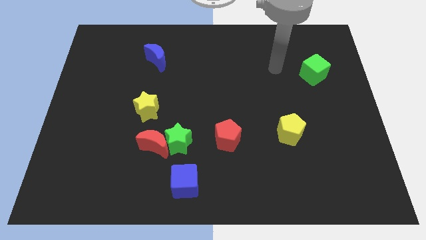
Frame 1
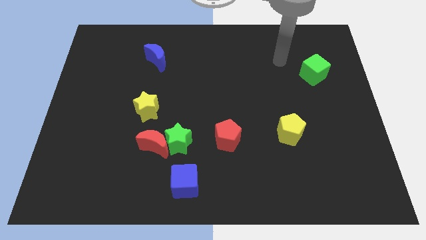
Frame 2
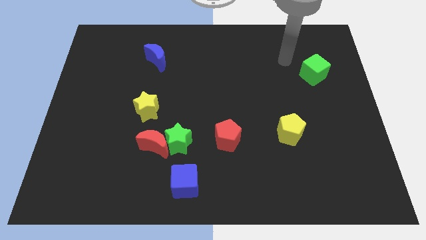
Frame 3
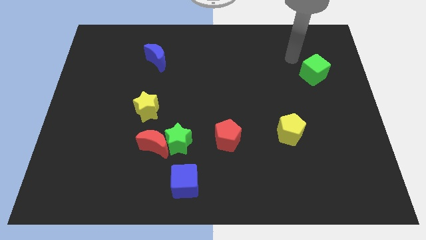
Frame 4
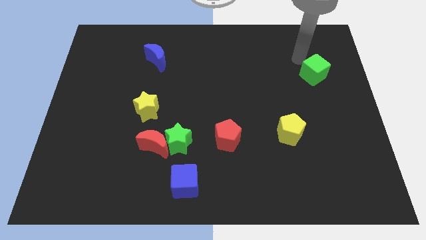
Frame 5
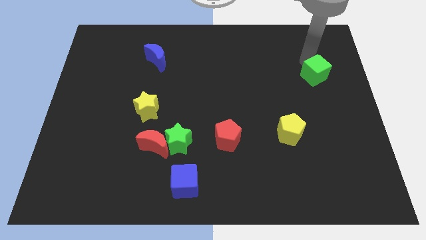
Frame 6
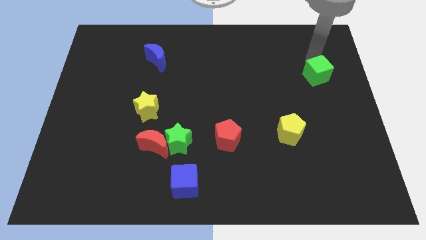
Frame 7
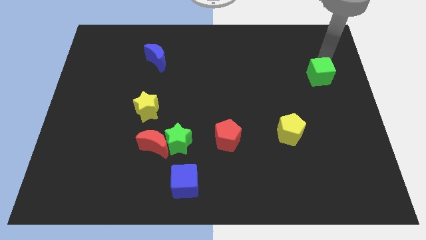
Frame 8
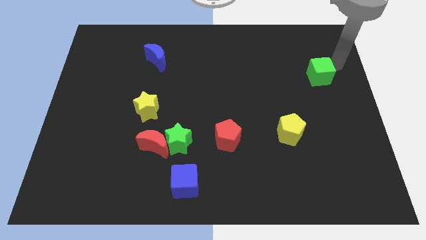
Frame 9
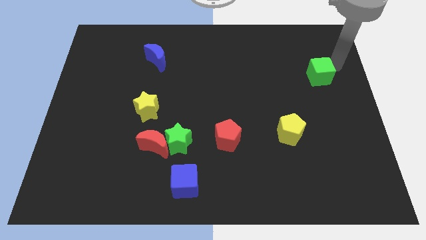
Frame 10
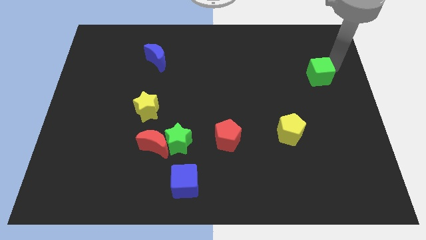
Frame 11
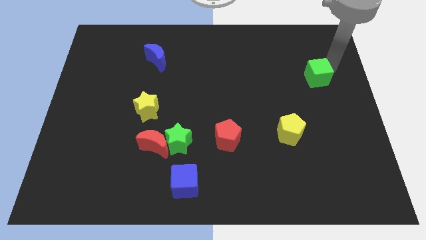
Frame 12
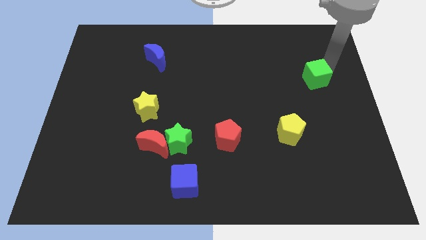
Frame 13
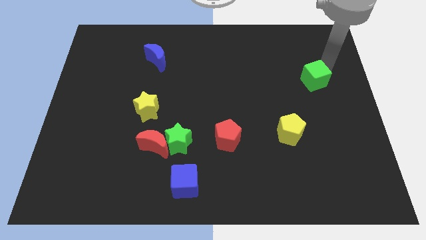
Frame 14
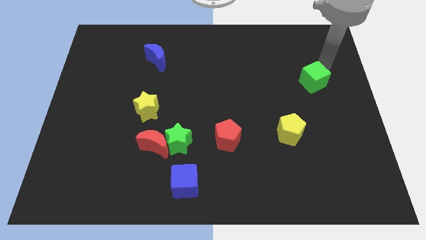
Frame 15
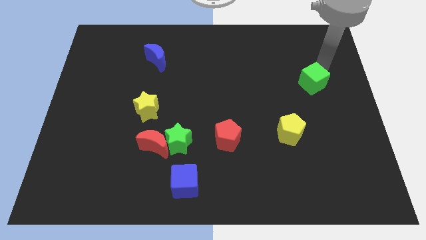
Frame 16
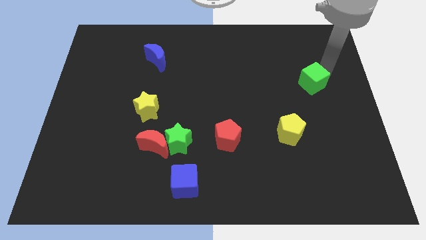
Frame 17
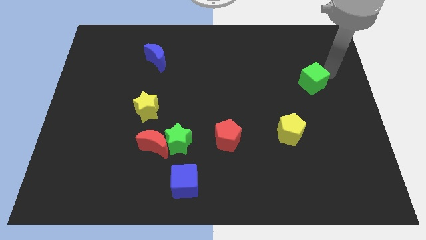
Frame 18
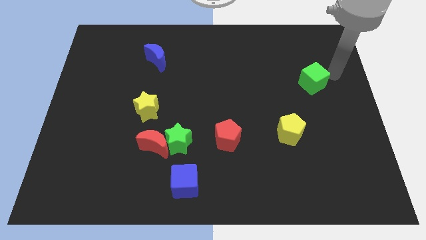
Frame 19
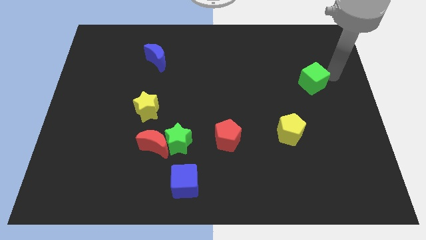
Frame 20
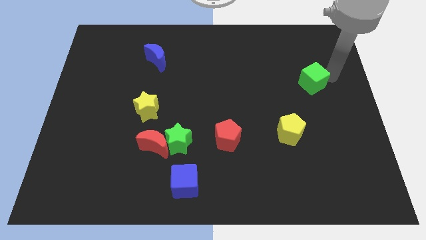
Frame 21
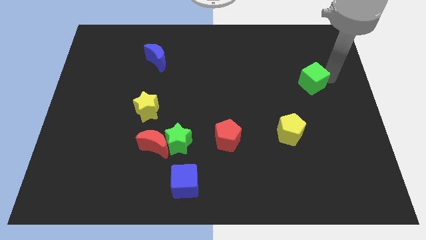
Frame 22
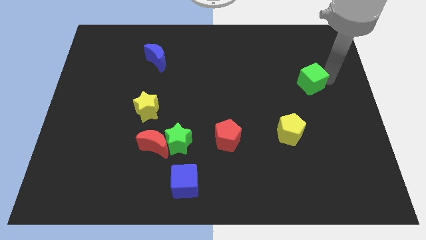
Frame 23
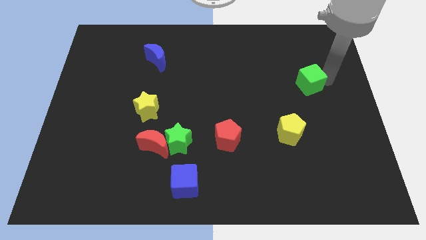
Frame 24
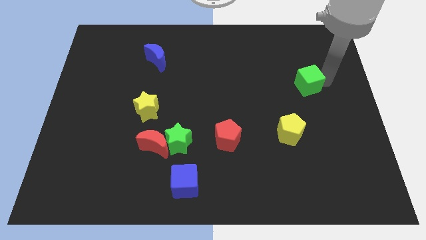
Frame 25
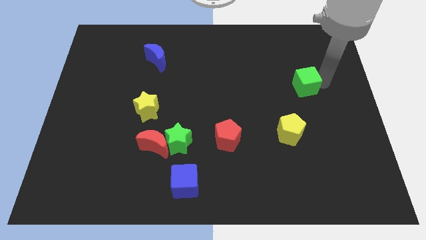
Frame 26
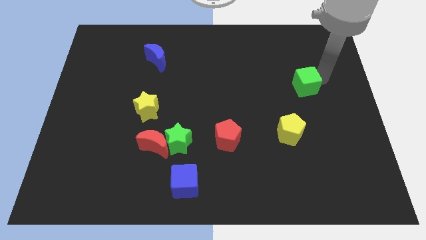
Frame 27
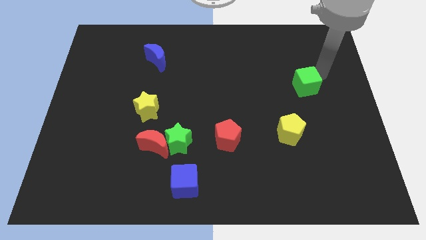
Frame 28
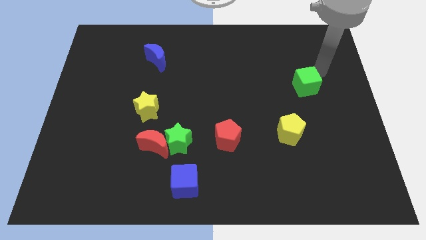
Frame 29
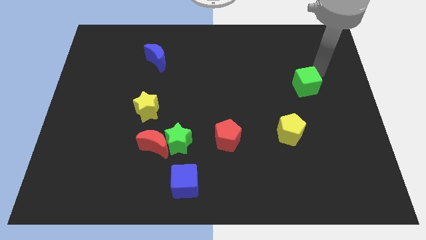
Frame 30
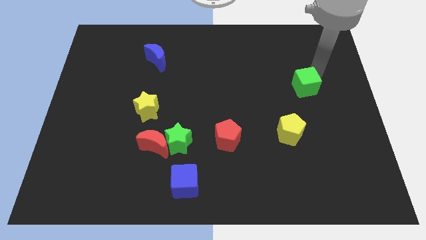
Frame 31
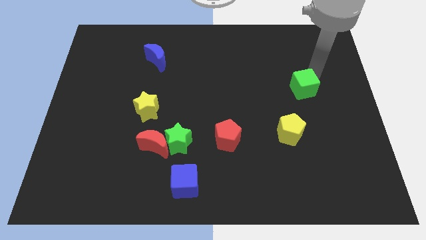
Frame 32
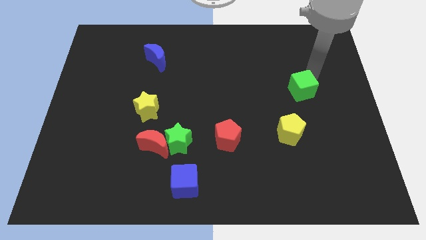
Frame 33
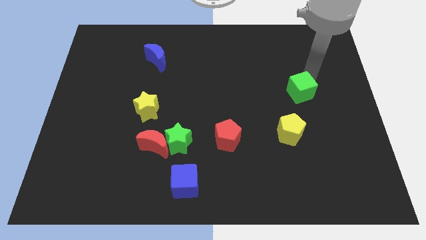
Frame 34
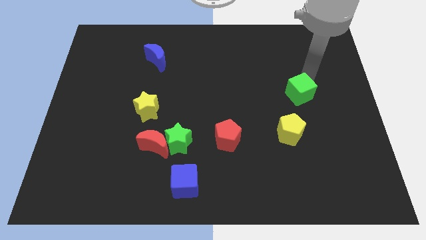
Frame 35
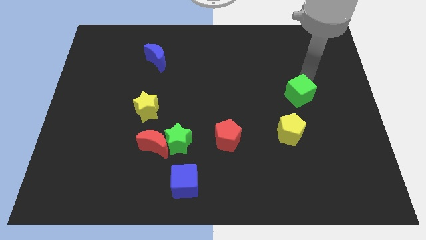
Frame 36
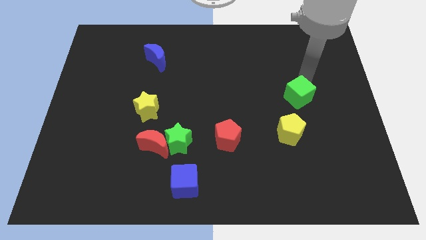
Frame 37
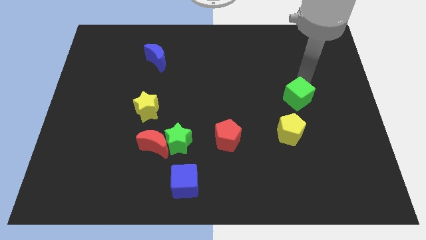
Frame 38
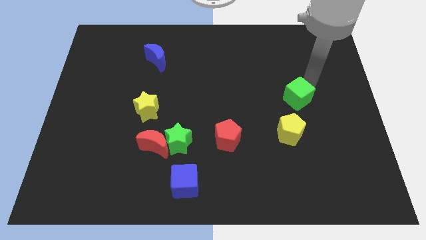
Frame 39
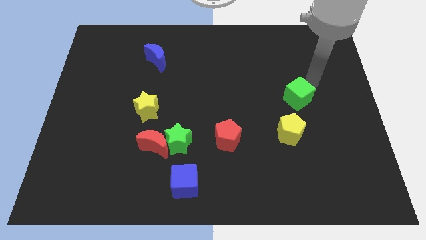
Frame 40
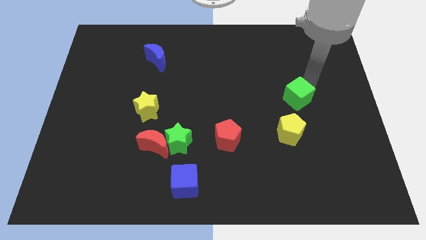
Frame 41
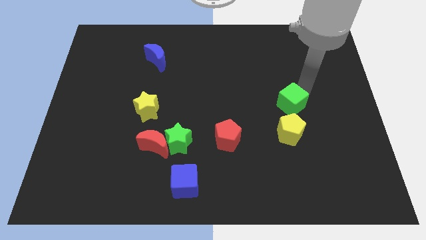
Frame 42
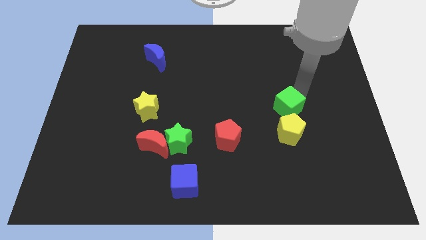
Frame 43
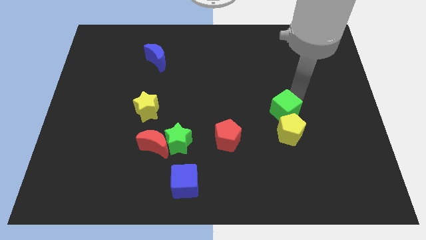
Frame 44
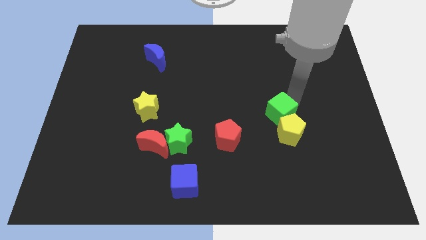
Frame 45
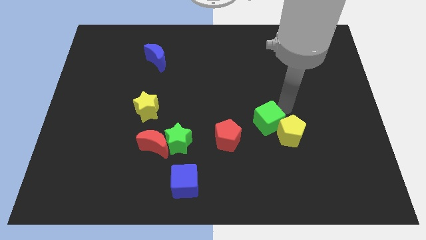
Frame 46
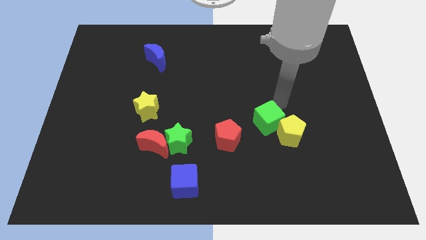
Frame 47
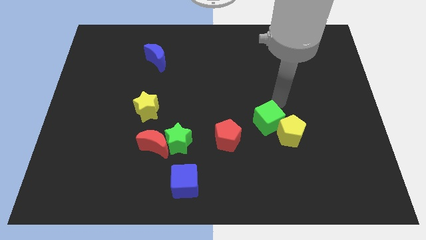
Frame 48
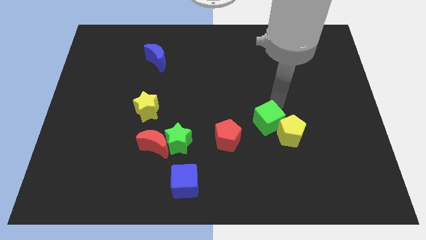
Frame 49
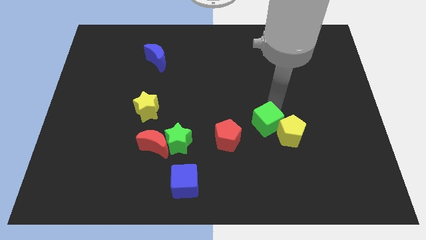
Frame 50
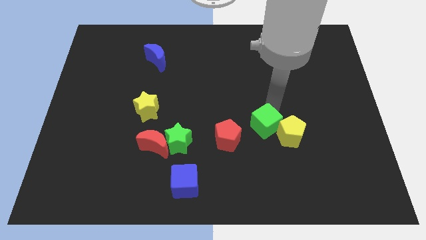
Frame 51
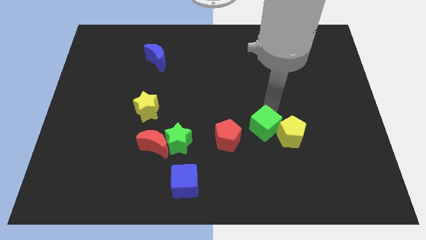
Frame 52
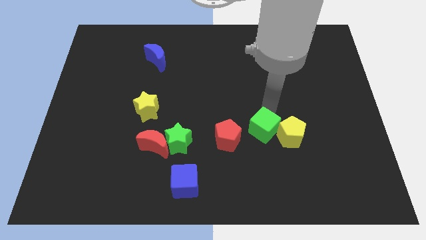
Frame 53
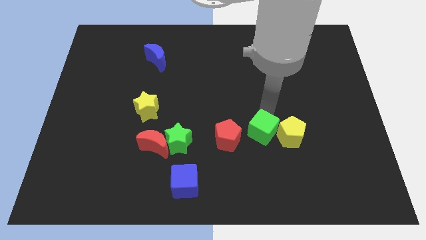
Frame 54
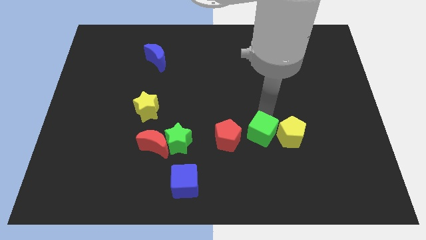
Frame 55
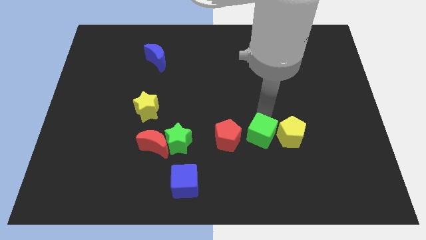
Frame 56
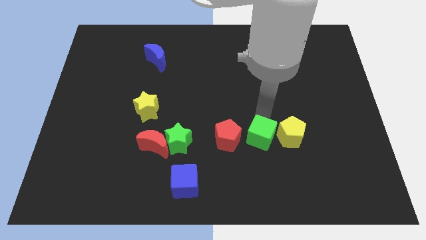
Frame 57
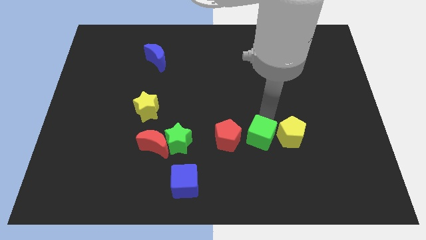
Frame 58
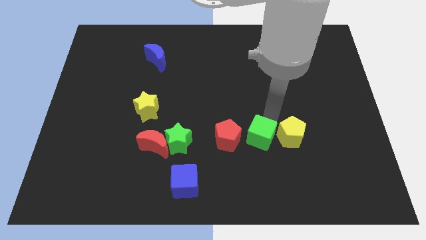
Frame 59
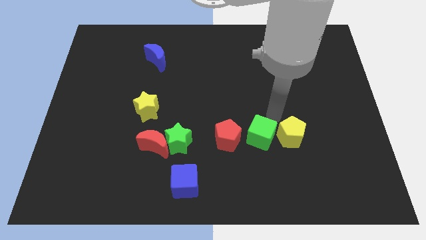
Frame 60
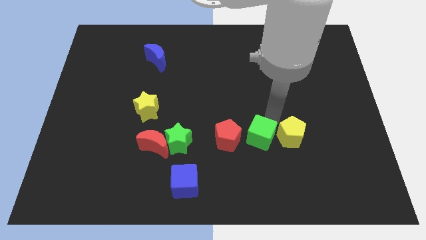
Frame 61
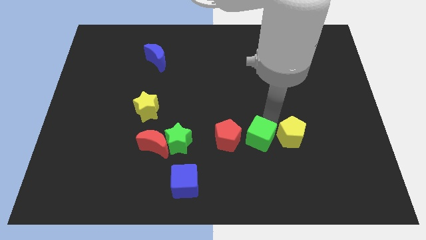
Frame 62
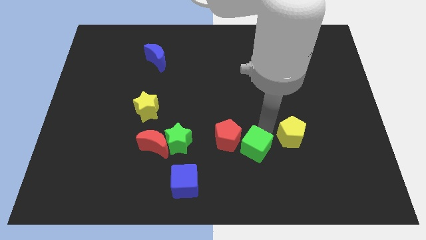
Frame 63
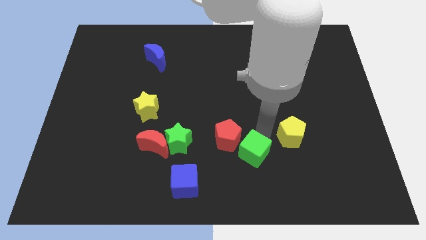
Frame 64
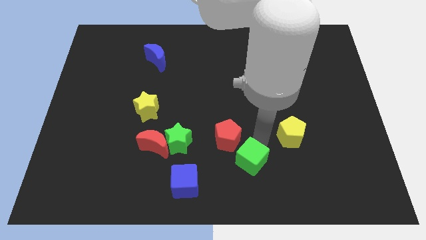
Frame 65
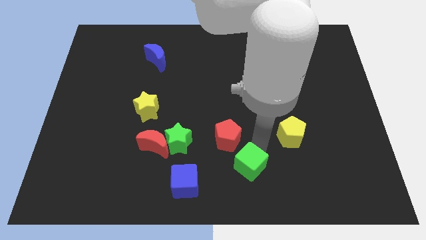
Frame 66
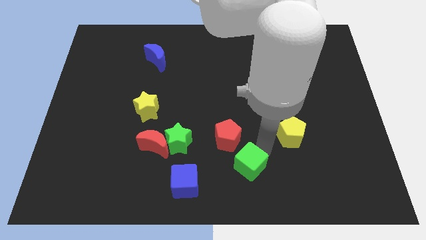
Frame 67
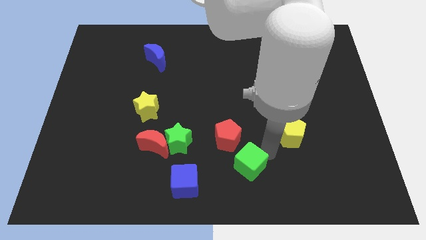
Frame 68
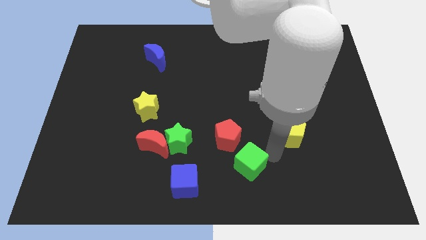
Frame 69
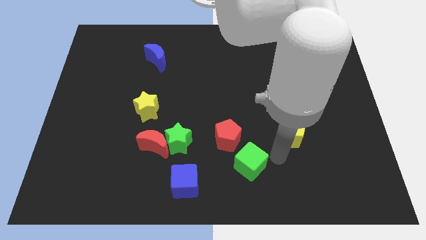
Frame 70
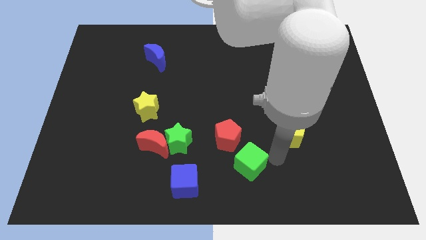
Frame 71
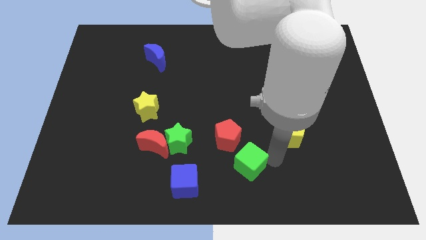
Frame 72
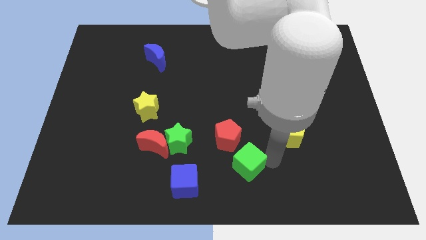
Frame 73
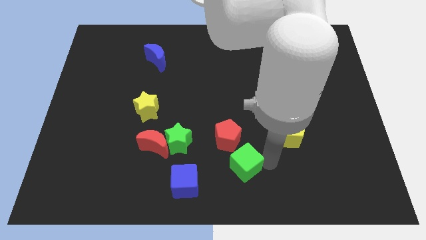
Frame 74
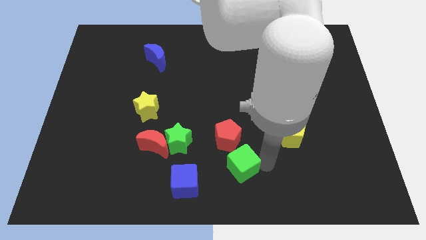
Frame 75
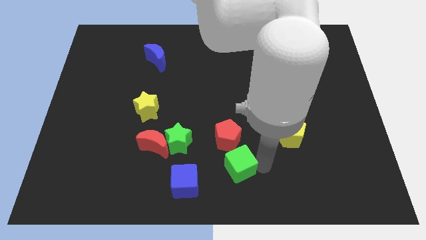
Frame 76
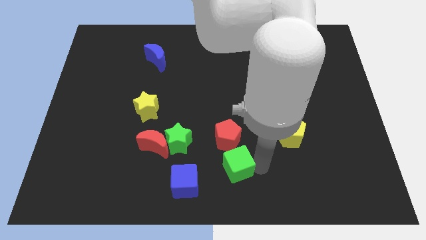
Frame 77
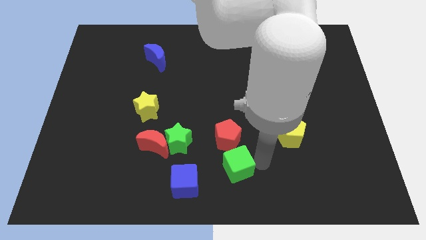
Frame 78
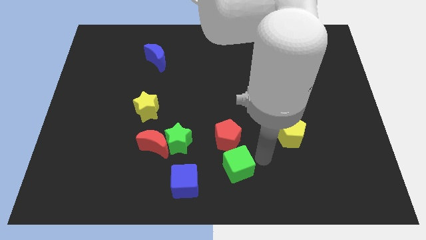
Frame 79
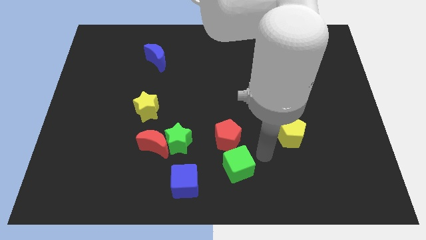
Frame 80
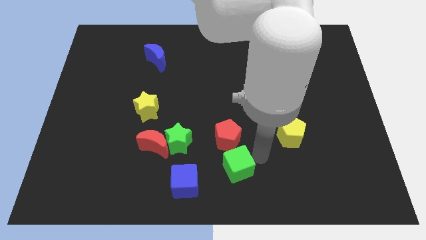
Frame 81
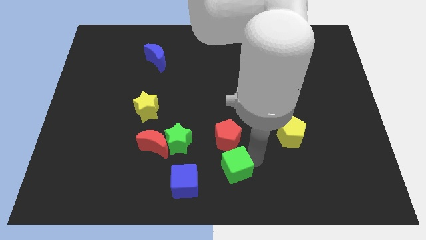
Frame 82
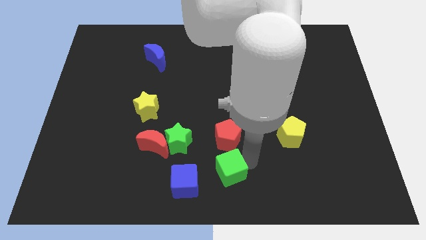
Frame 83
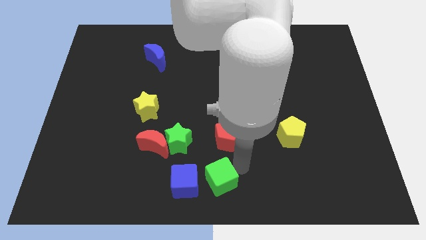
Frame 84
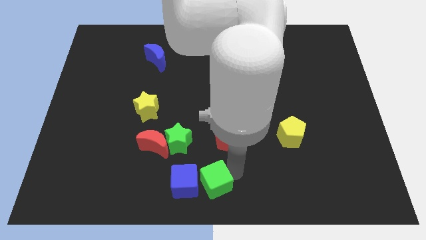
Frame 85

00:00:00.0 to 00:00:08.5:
slide the green cube close to the blue cube
